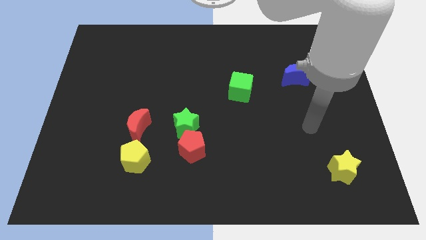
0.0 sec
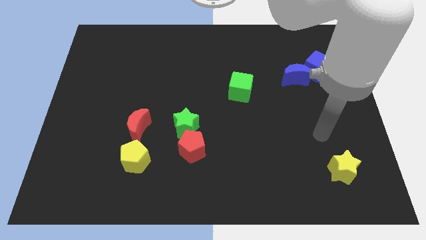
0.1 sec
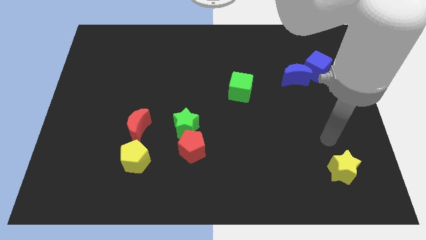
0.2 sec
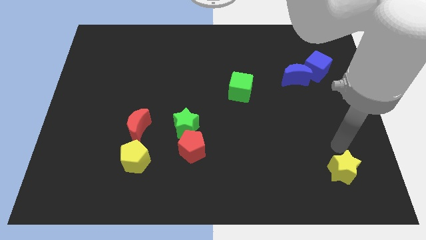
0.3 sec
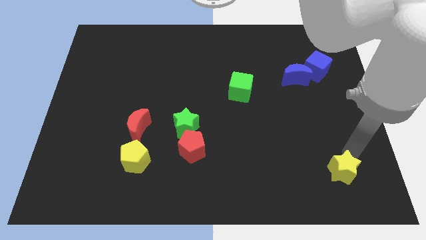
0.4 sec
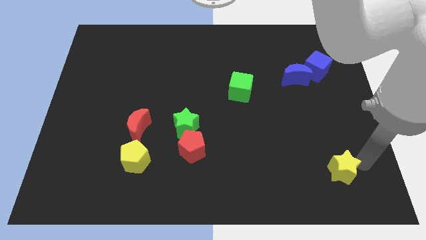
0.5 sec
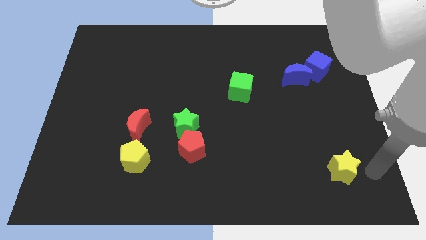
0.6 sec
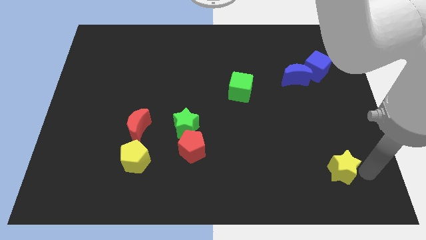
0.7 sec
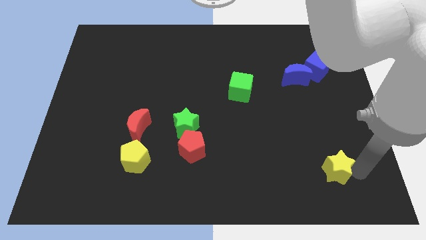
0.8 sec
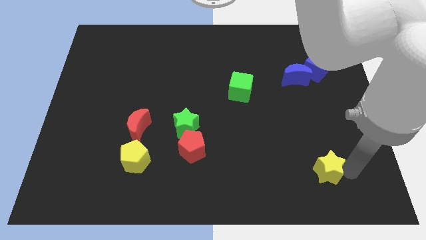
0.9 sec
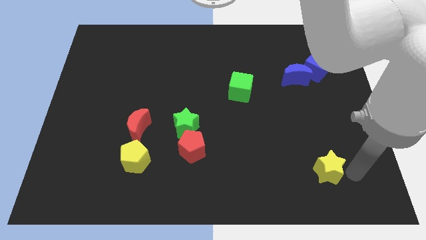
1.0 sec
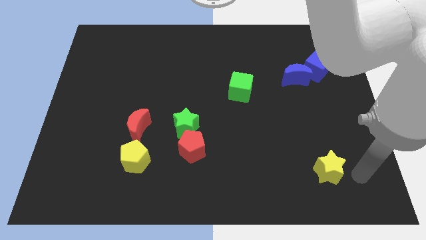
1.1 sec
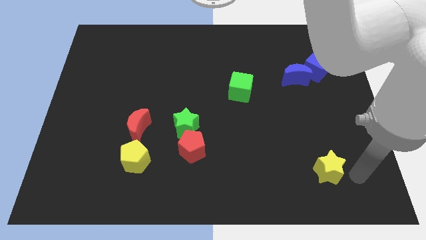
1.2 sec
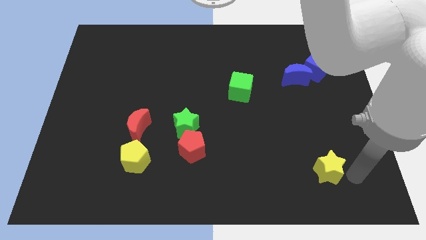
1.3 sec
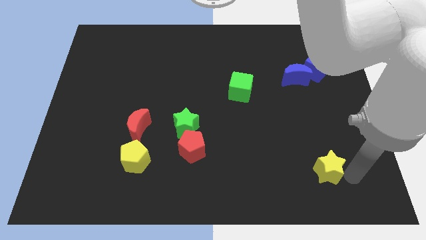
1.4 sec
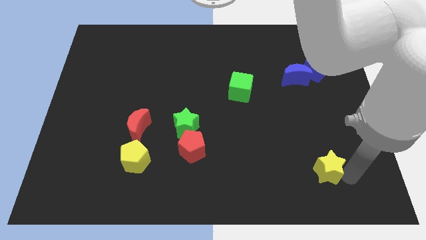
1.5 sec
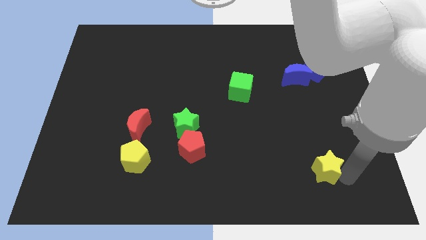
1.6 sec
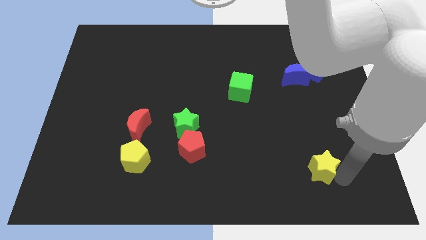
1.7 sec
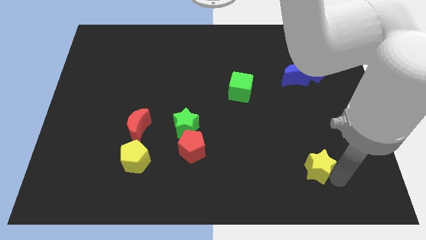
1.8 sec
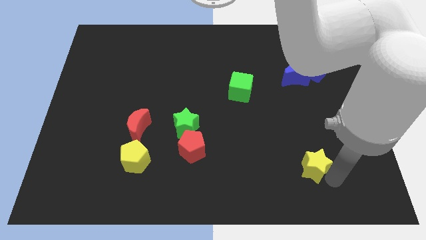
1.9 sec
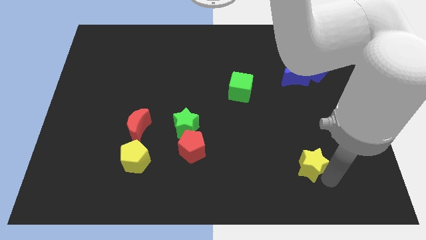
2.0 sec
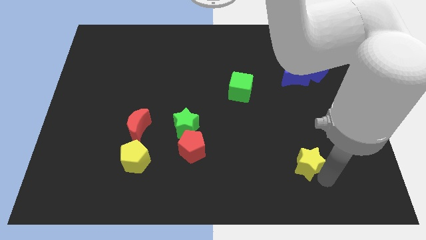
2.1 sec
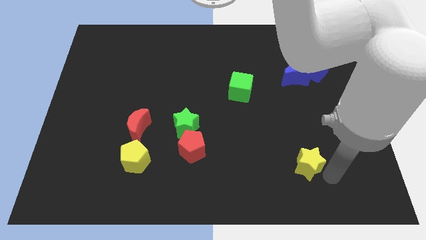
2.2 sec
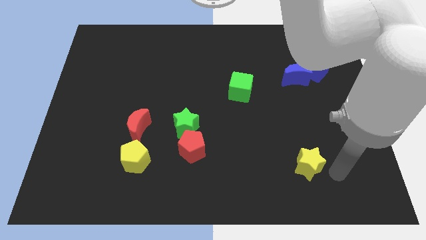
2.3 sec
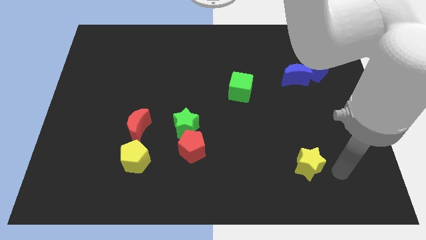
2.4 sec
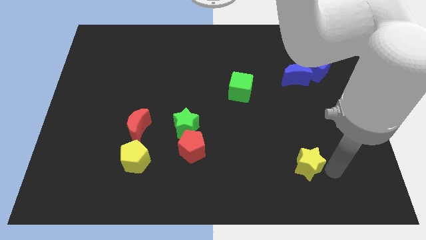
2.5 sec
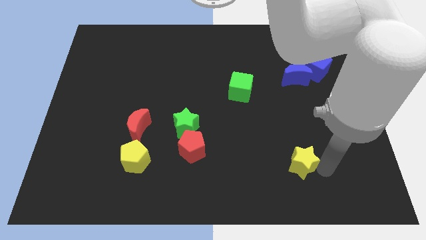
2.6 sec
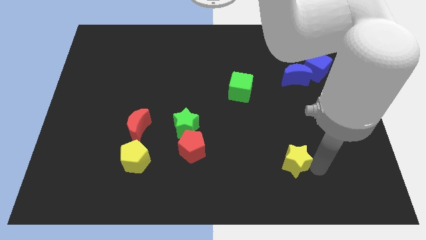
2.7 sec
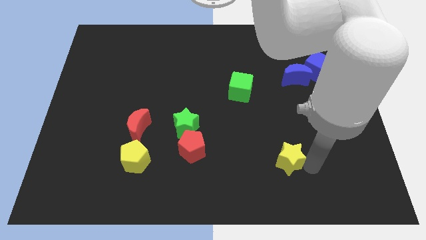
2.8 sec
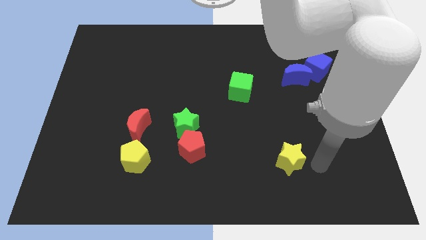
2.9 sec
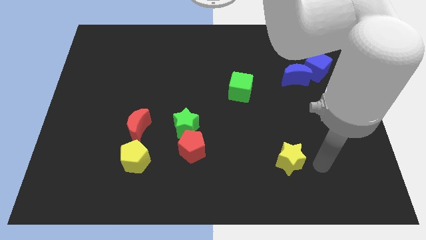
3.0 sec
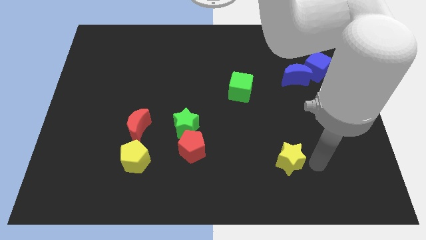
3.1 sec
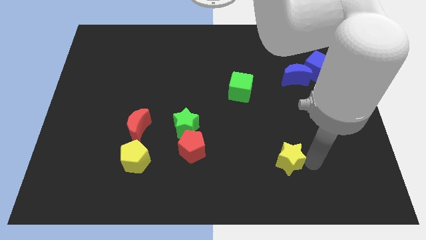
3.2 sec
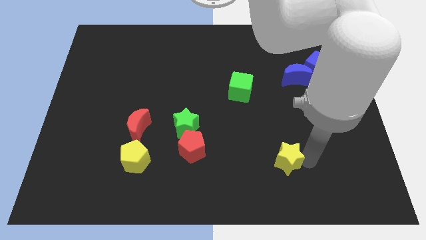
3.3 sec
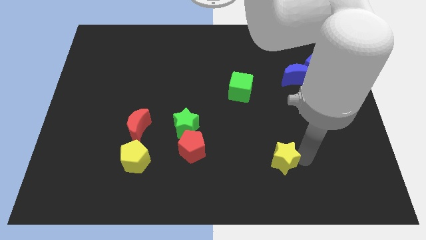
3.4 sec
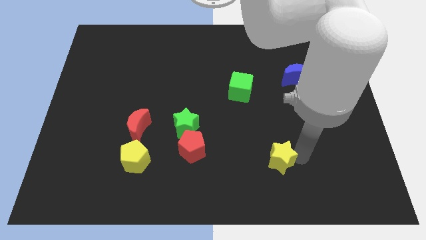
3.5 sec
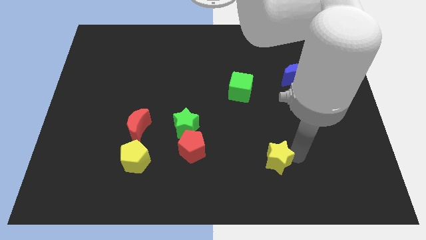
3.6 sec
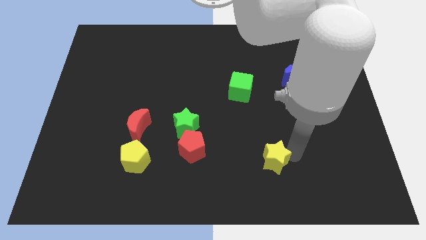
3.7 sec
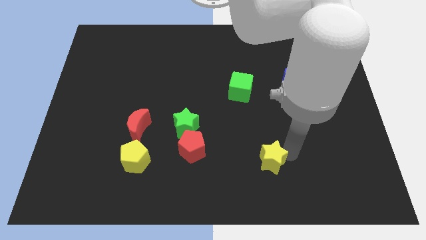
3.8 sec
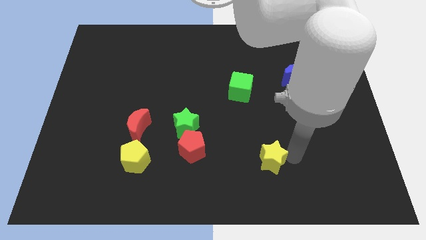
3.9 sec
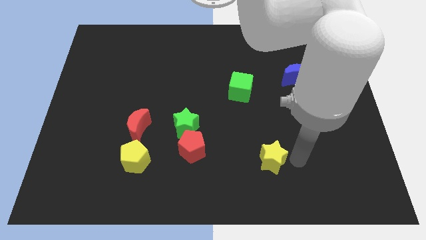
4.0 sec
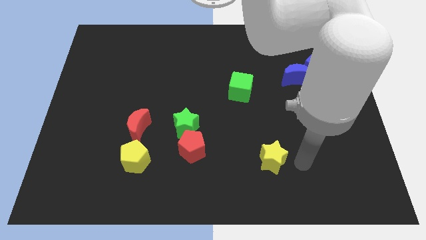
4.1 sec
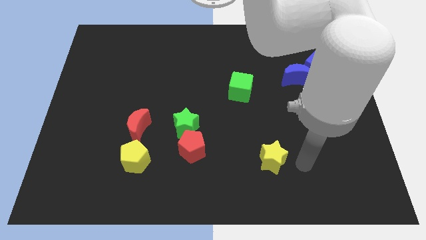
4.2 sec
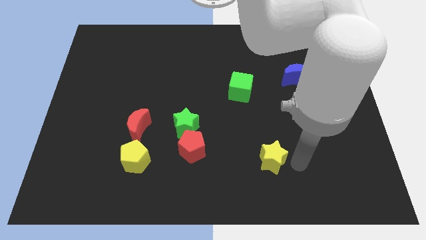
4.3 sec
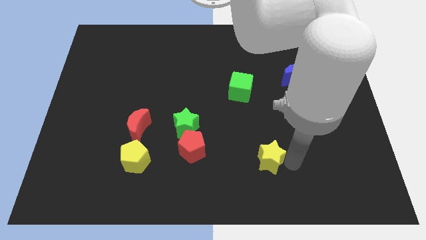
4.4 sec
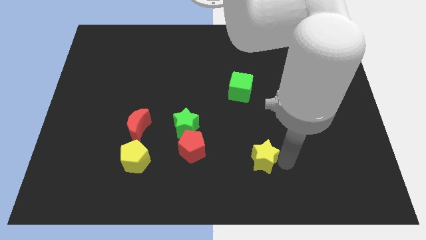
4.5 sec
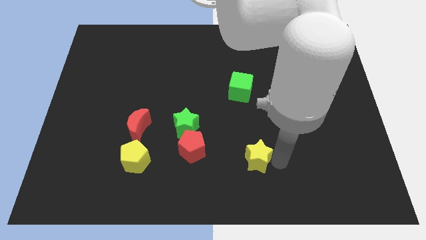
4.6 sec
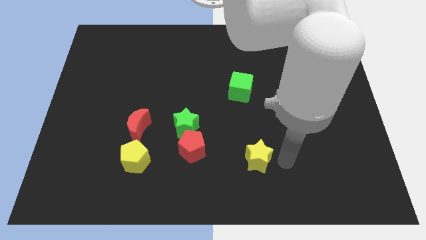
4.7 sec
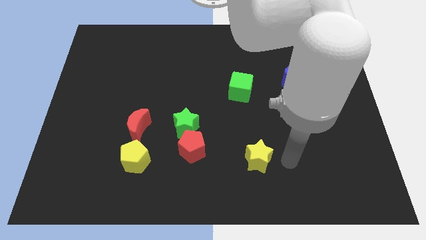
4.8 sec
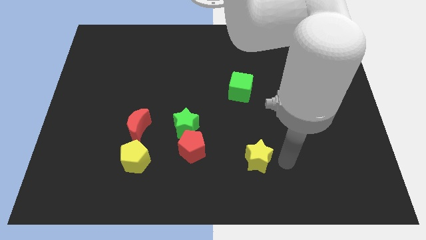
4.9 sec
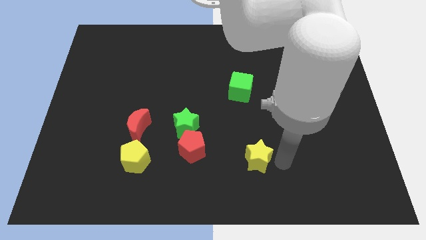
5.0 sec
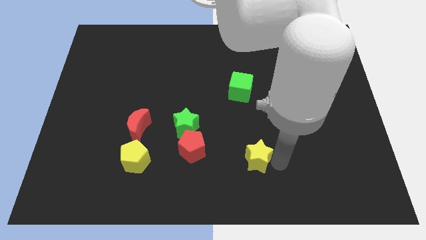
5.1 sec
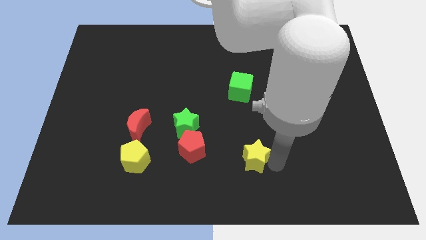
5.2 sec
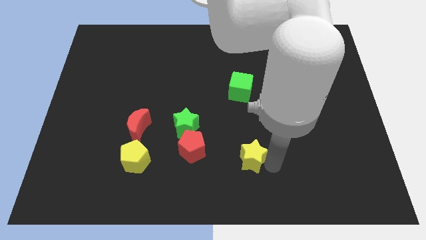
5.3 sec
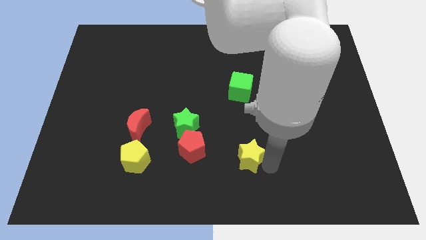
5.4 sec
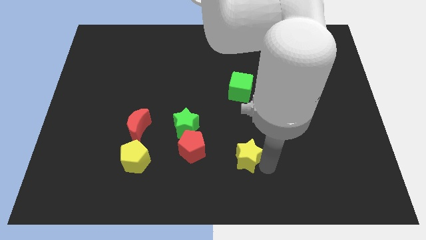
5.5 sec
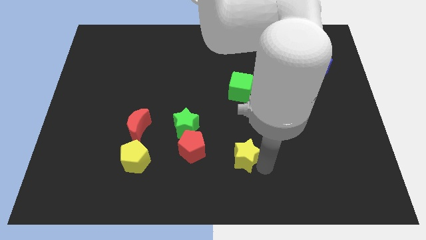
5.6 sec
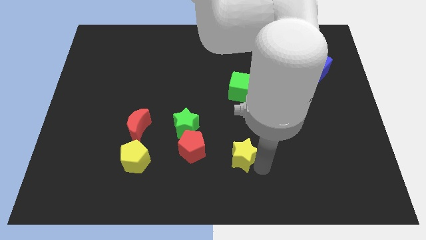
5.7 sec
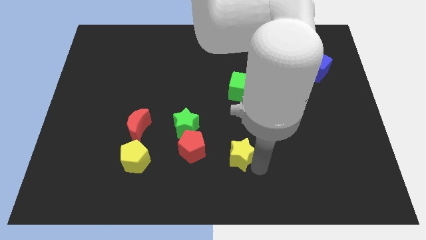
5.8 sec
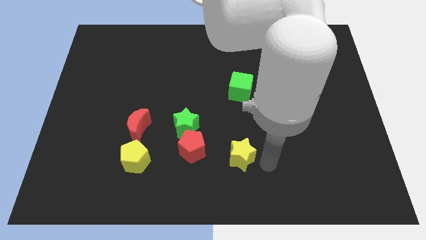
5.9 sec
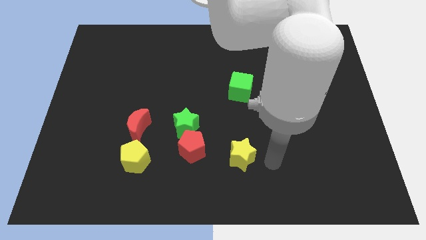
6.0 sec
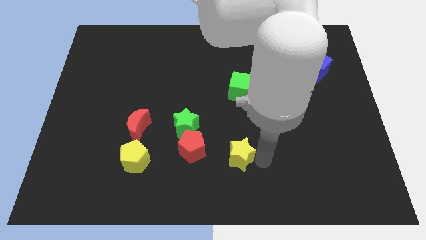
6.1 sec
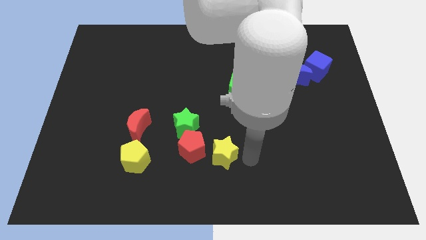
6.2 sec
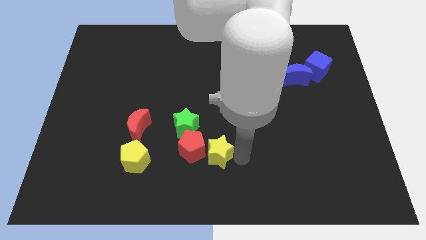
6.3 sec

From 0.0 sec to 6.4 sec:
push the yellow star next to the red pentagon
